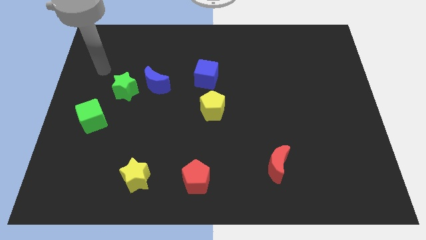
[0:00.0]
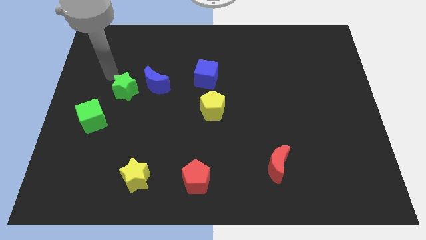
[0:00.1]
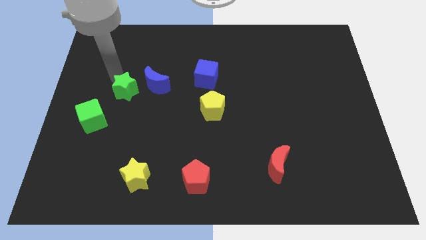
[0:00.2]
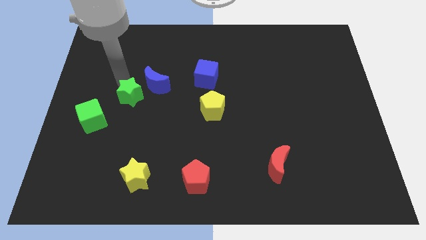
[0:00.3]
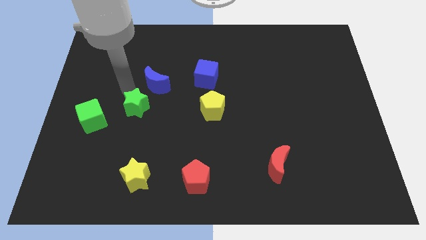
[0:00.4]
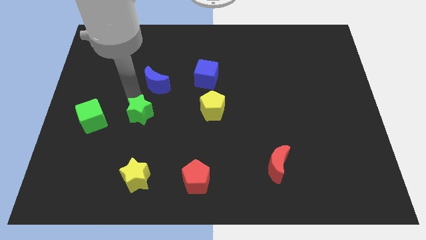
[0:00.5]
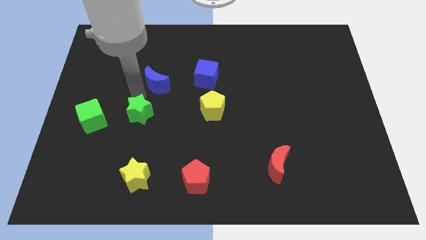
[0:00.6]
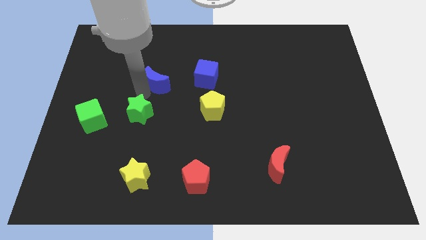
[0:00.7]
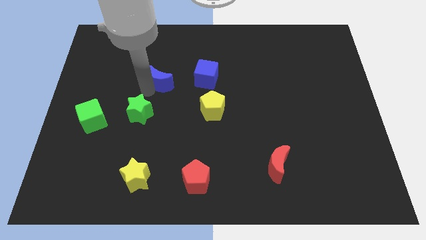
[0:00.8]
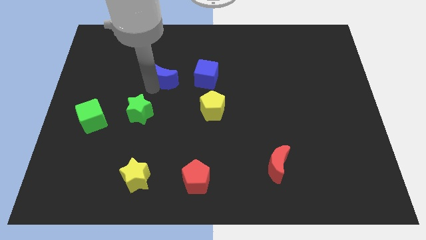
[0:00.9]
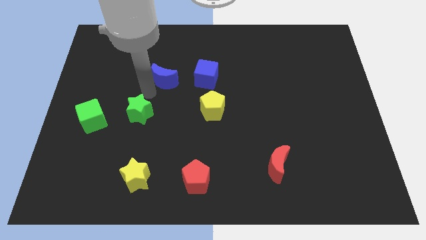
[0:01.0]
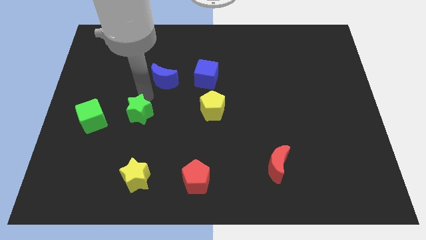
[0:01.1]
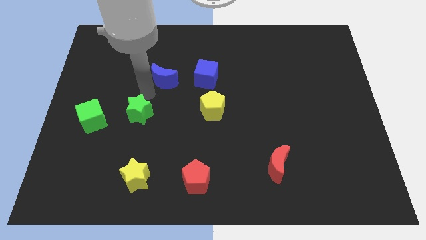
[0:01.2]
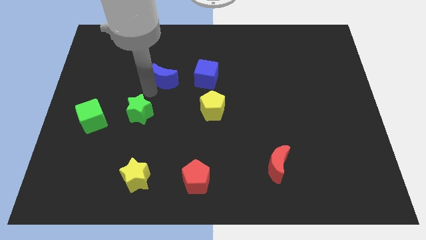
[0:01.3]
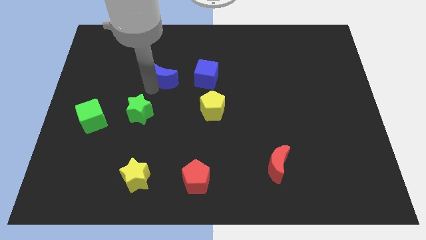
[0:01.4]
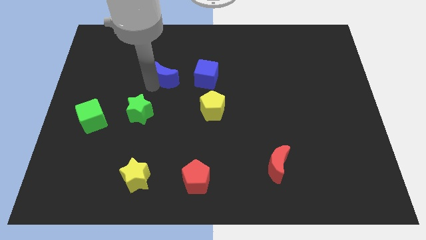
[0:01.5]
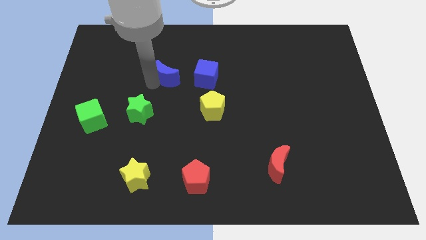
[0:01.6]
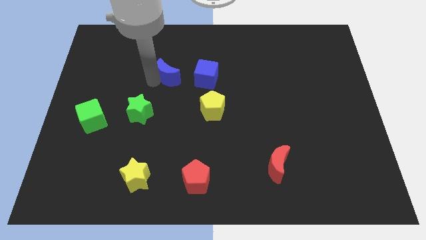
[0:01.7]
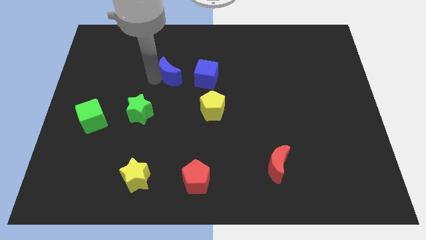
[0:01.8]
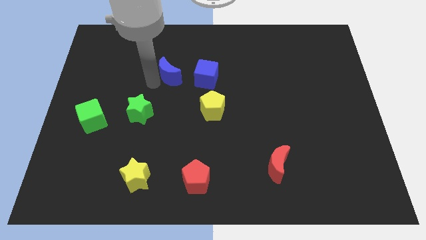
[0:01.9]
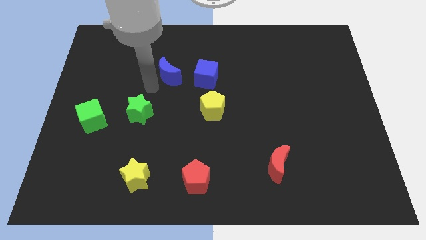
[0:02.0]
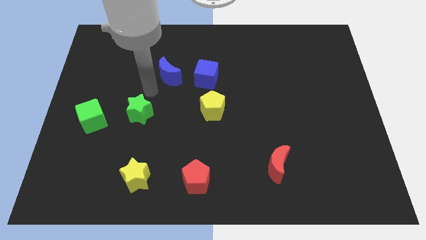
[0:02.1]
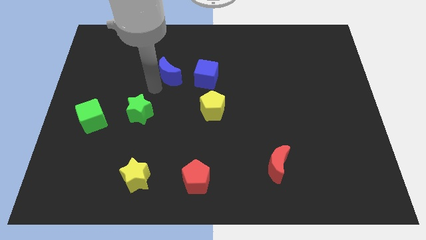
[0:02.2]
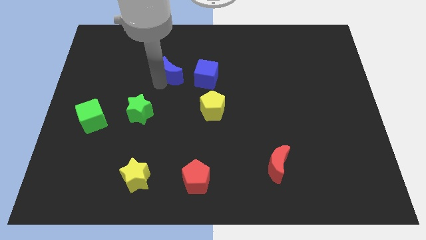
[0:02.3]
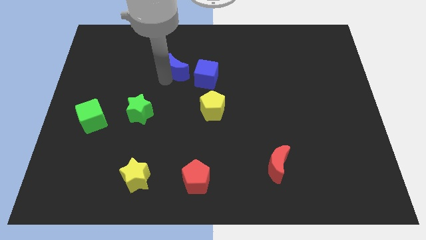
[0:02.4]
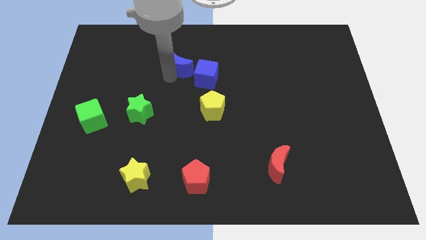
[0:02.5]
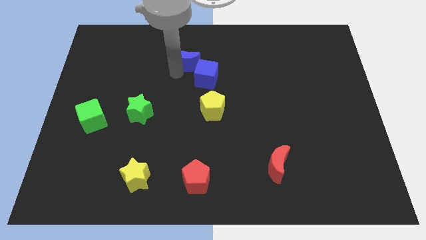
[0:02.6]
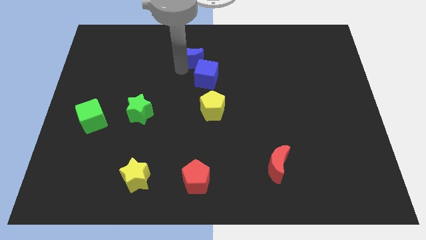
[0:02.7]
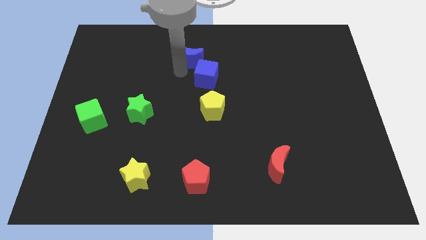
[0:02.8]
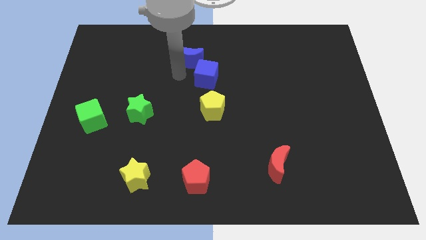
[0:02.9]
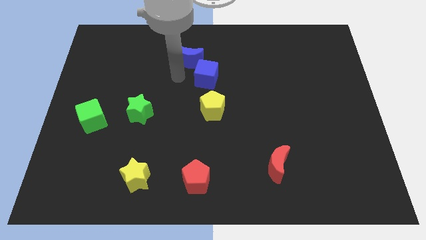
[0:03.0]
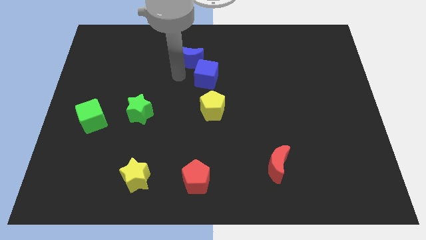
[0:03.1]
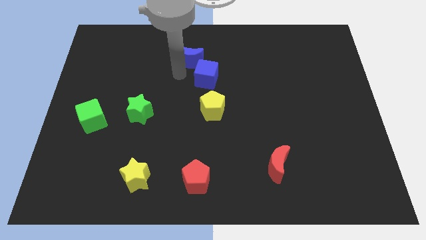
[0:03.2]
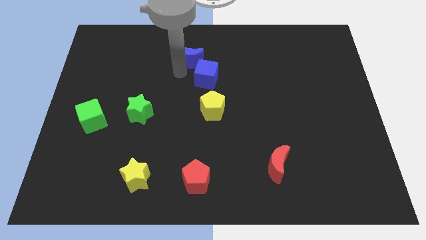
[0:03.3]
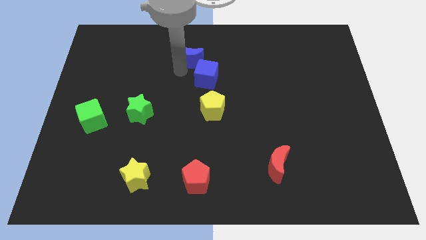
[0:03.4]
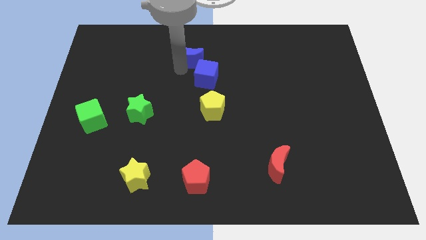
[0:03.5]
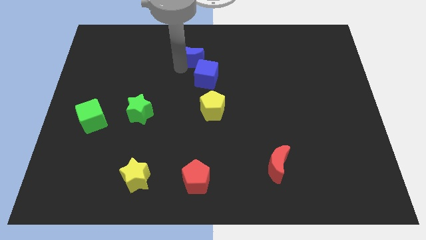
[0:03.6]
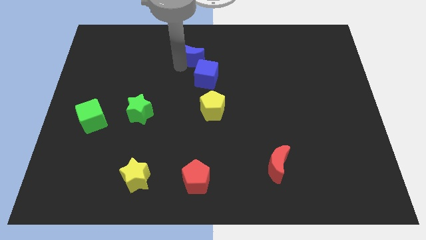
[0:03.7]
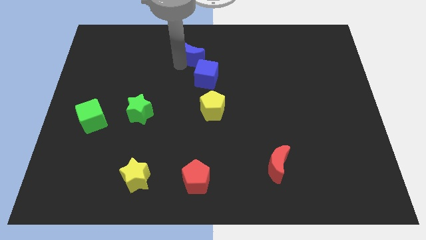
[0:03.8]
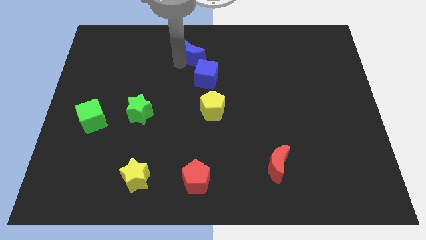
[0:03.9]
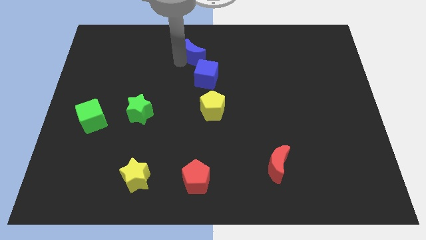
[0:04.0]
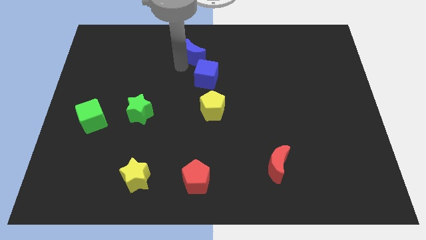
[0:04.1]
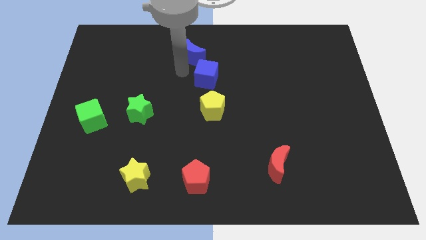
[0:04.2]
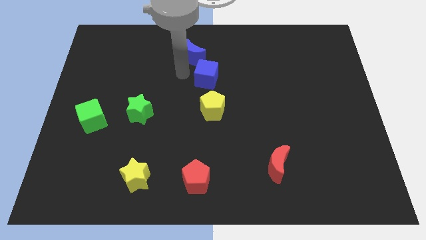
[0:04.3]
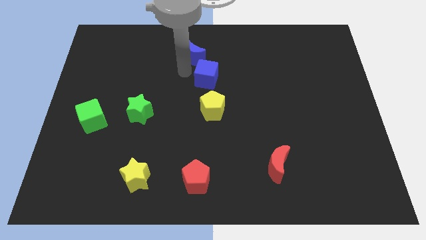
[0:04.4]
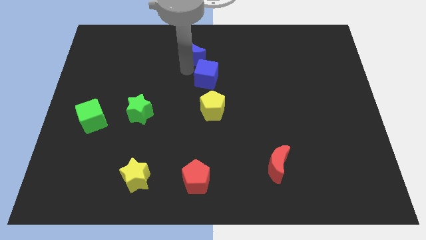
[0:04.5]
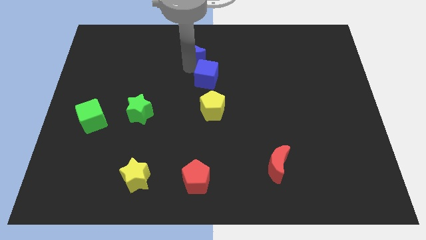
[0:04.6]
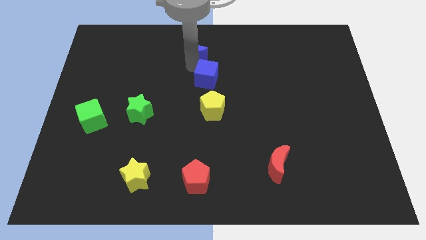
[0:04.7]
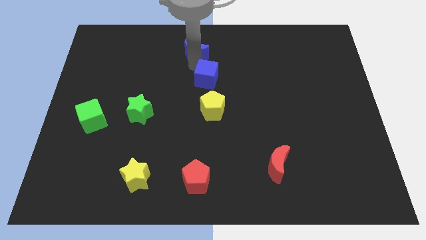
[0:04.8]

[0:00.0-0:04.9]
move the blue moon to the top

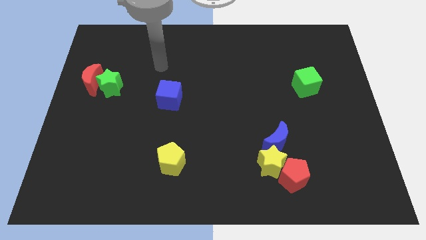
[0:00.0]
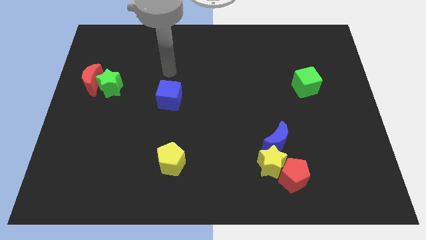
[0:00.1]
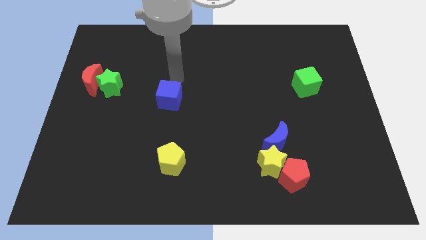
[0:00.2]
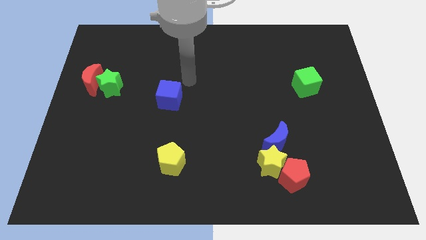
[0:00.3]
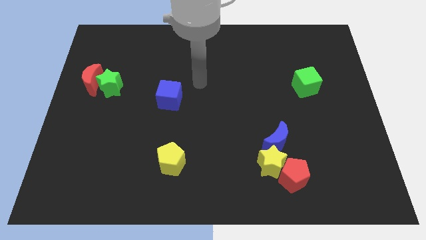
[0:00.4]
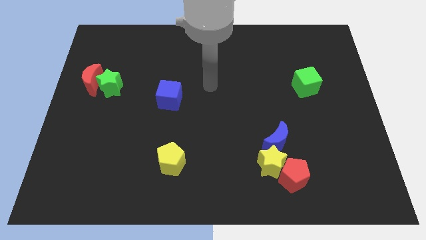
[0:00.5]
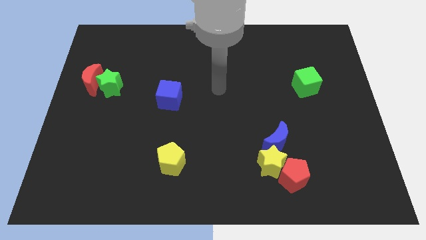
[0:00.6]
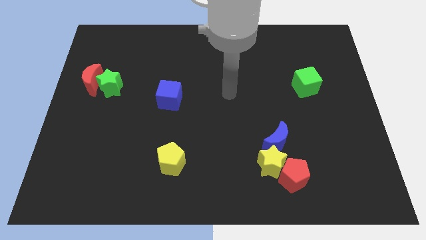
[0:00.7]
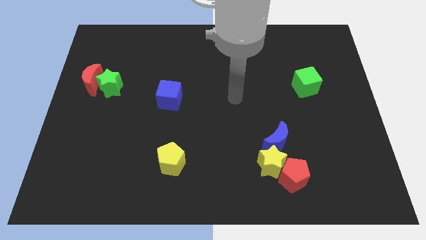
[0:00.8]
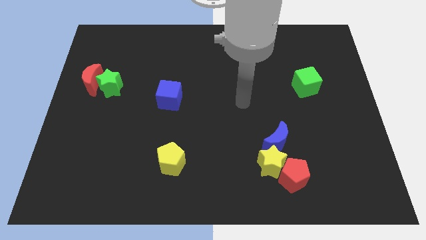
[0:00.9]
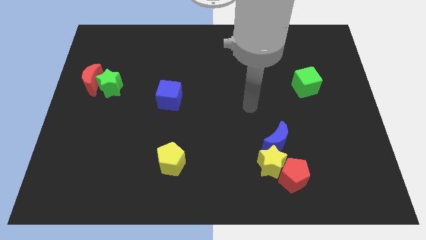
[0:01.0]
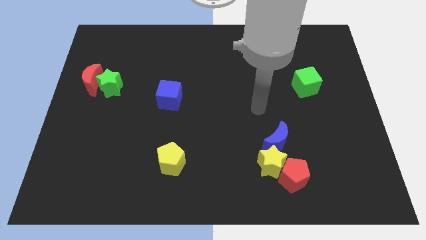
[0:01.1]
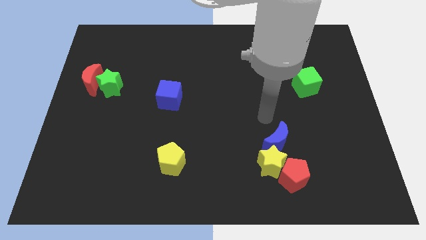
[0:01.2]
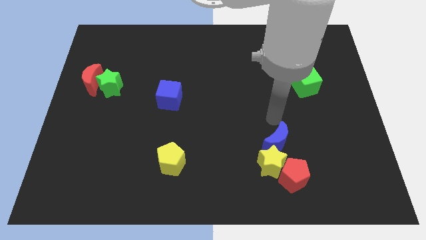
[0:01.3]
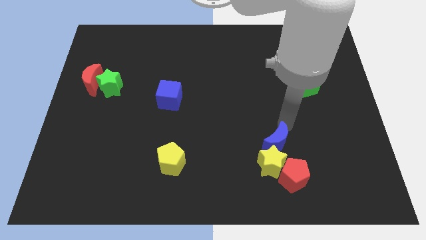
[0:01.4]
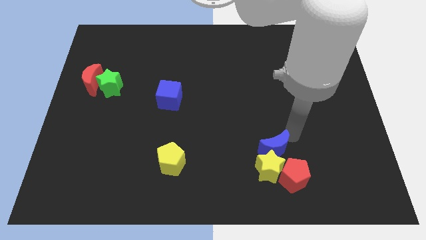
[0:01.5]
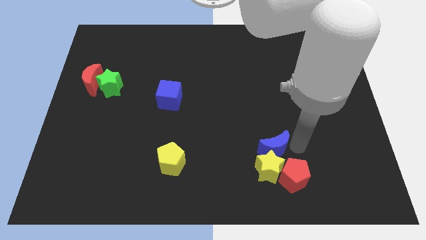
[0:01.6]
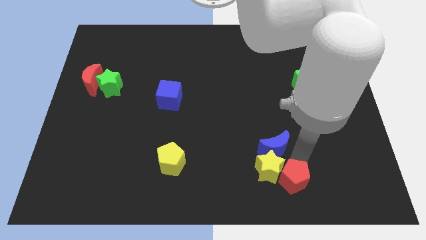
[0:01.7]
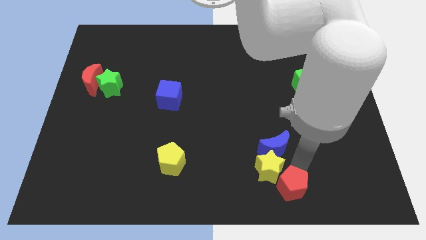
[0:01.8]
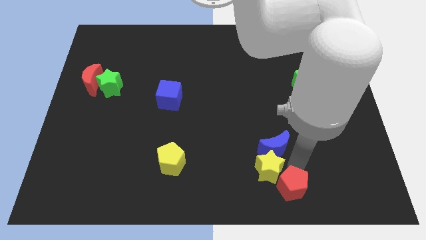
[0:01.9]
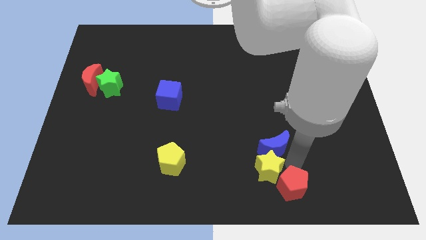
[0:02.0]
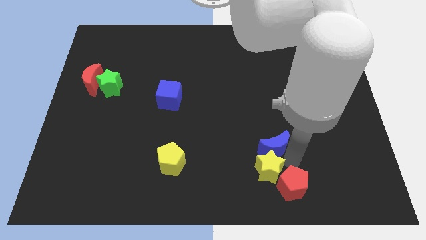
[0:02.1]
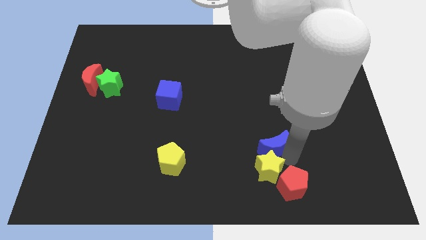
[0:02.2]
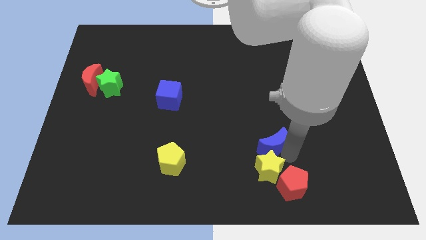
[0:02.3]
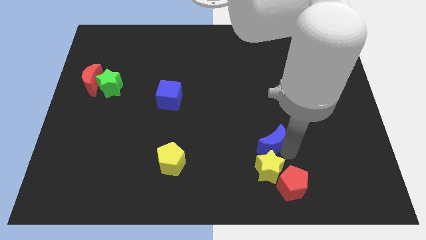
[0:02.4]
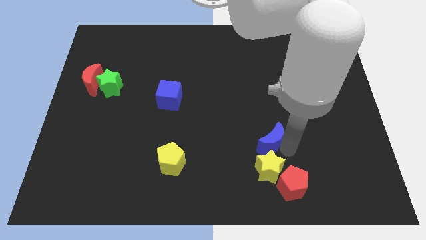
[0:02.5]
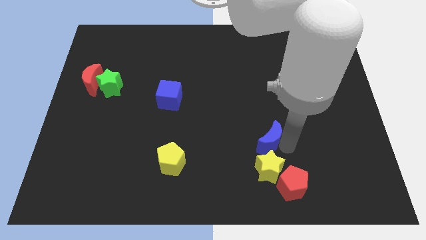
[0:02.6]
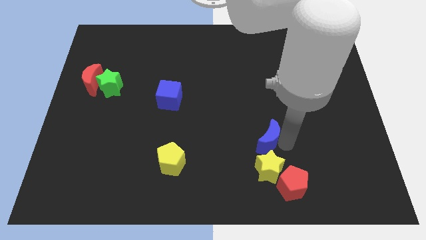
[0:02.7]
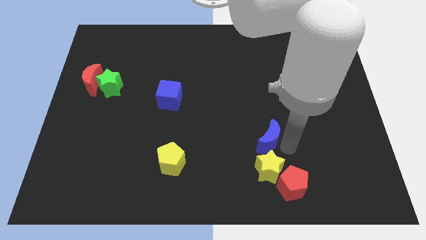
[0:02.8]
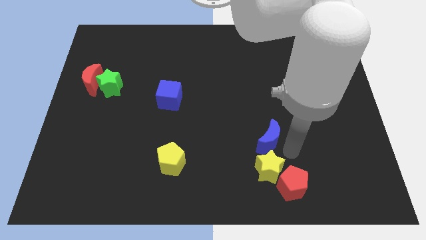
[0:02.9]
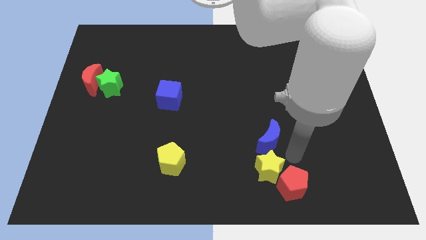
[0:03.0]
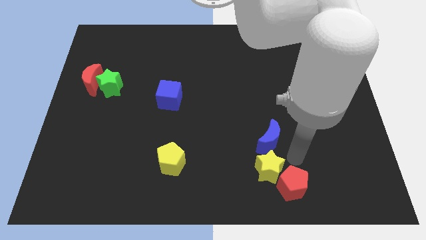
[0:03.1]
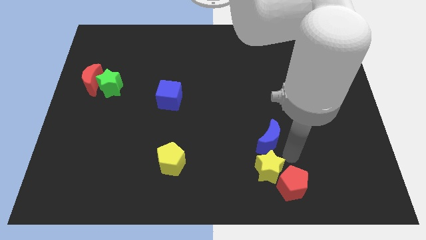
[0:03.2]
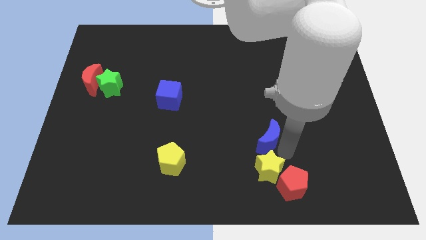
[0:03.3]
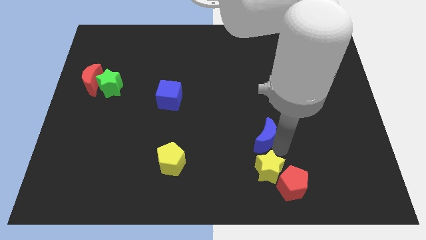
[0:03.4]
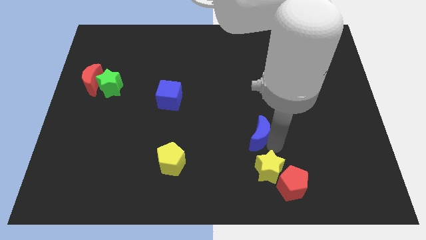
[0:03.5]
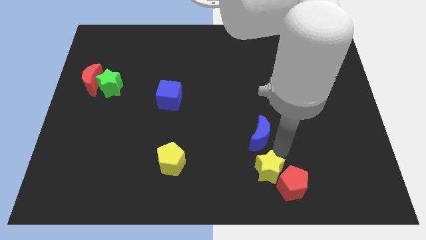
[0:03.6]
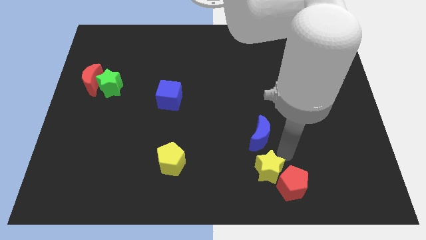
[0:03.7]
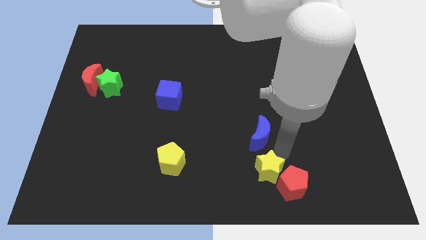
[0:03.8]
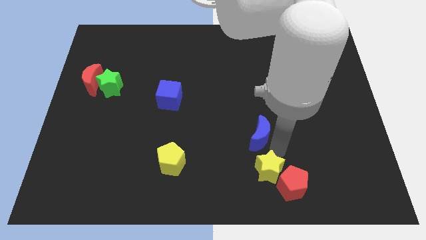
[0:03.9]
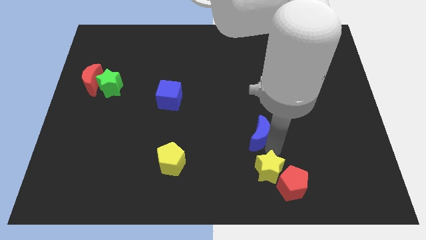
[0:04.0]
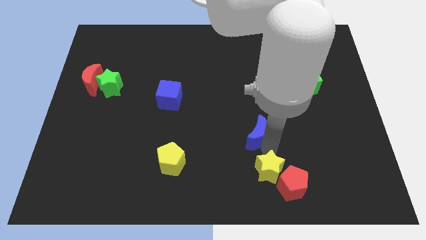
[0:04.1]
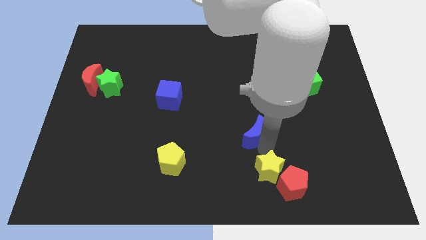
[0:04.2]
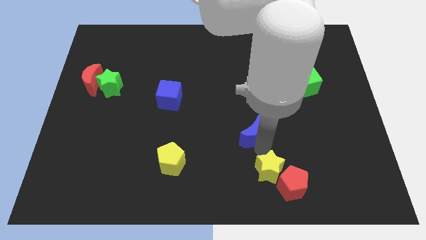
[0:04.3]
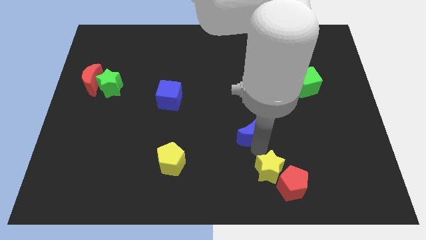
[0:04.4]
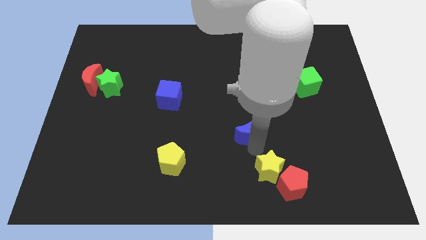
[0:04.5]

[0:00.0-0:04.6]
put the blue moon to the middle
